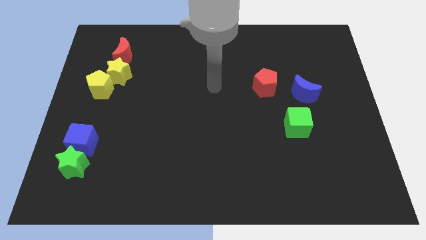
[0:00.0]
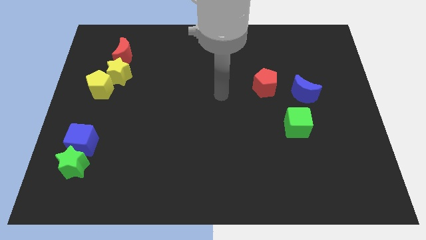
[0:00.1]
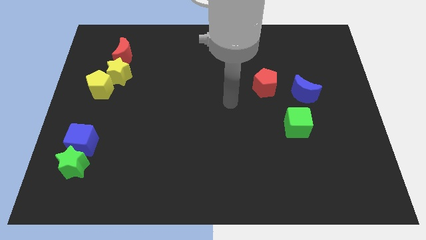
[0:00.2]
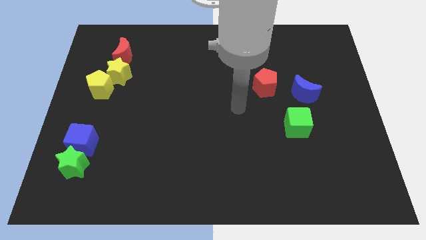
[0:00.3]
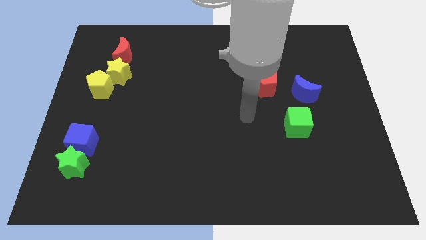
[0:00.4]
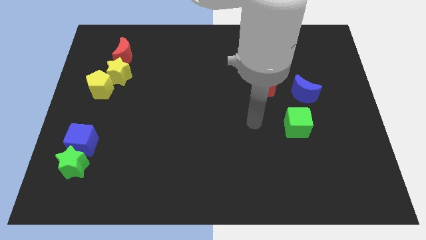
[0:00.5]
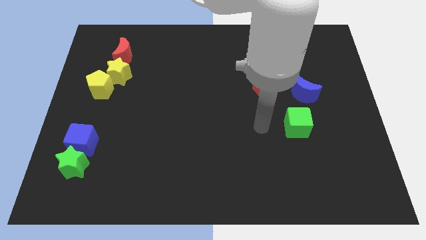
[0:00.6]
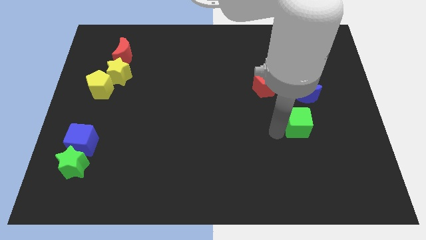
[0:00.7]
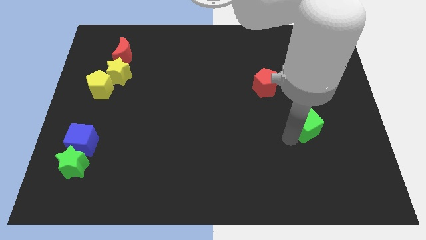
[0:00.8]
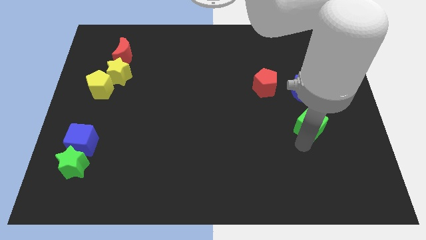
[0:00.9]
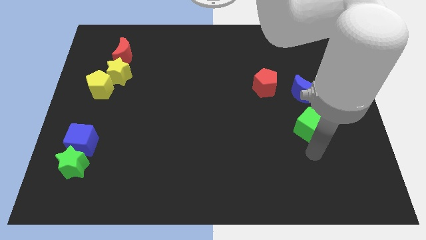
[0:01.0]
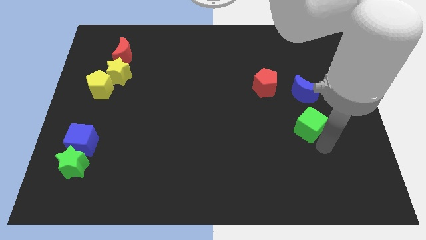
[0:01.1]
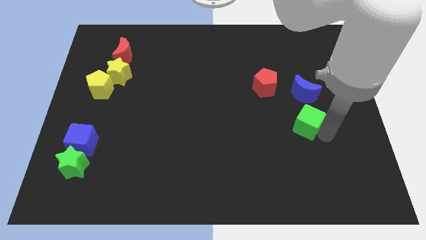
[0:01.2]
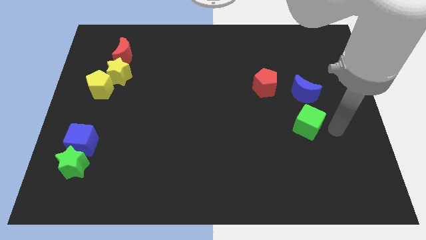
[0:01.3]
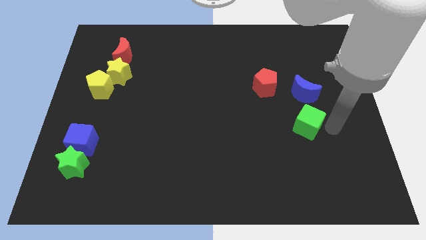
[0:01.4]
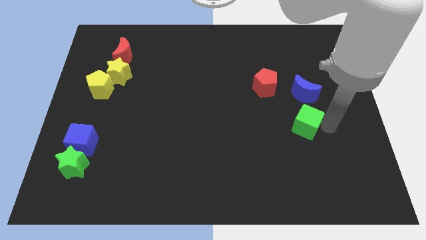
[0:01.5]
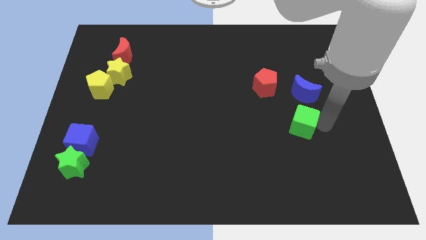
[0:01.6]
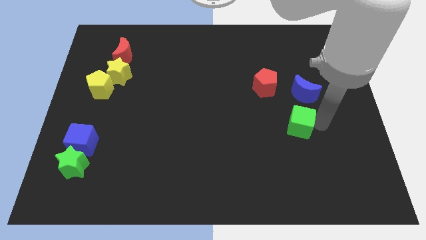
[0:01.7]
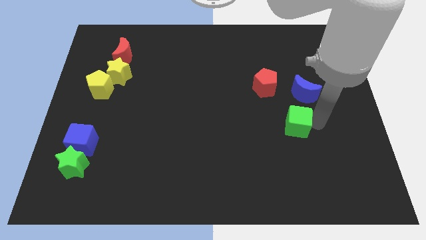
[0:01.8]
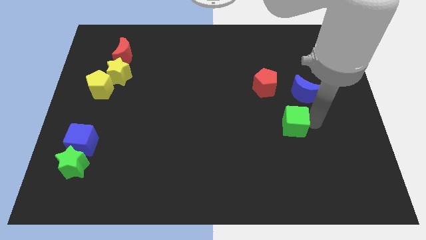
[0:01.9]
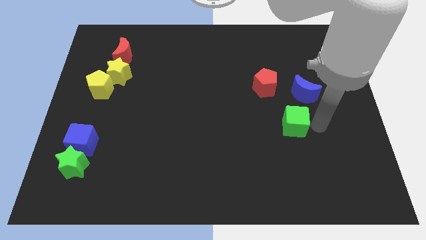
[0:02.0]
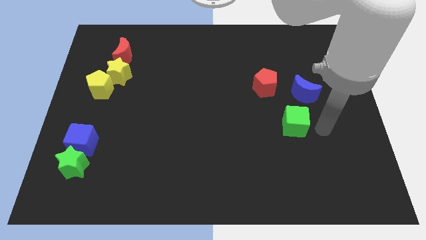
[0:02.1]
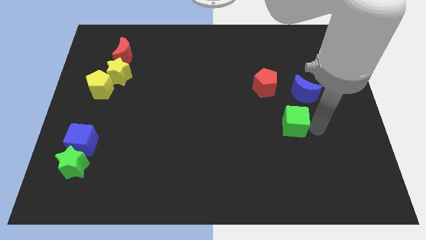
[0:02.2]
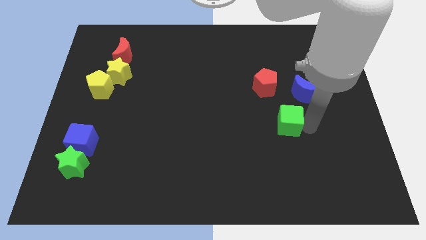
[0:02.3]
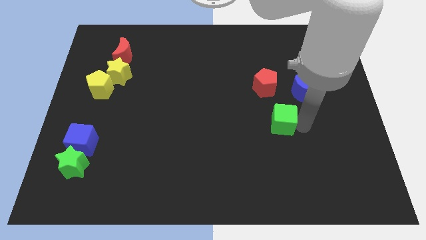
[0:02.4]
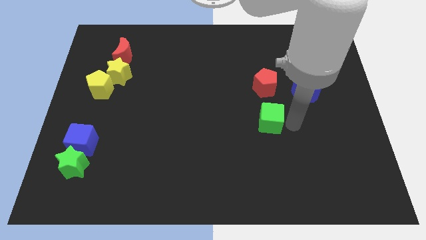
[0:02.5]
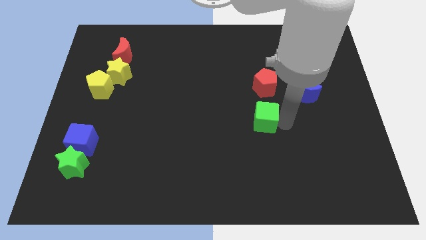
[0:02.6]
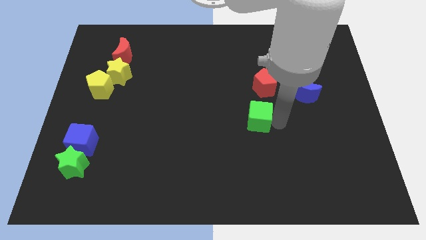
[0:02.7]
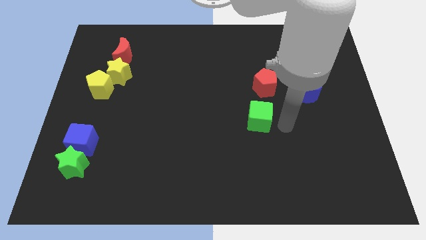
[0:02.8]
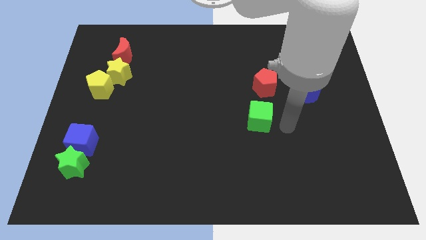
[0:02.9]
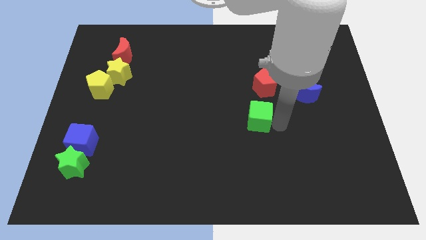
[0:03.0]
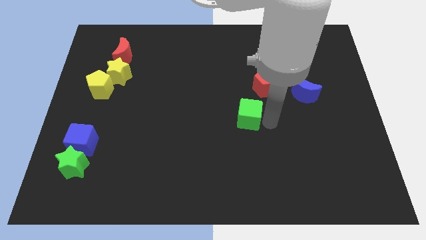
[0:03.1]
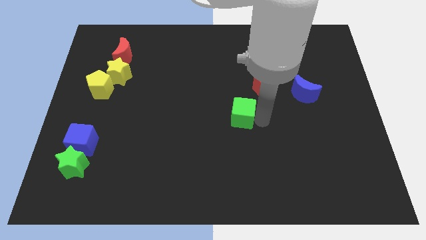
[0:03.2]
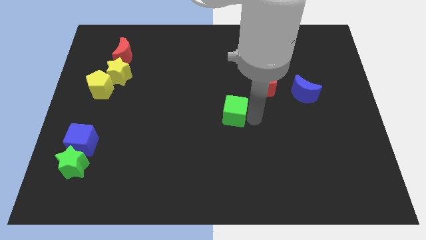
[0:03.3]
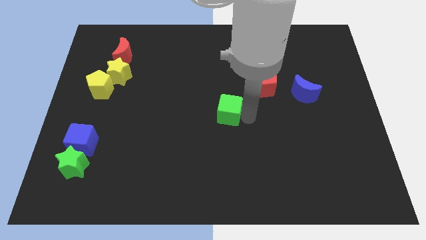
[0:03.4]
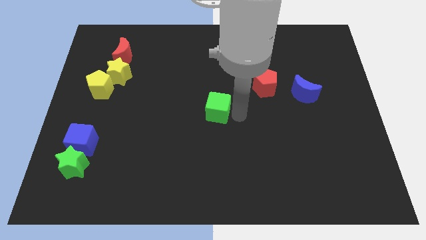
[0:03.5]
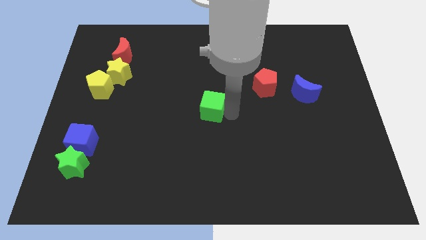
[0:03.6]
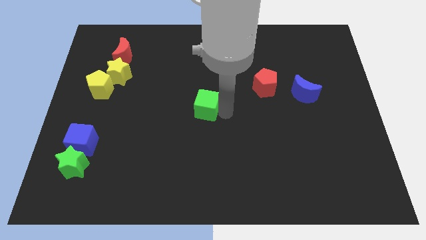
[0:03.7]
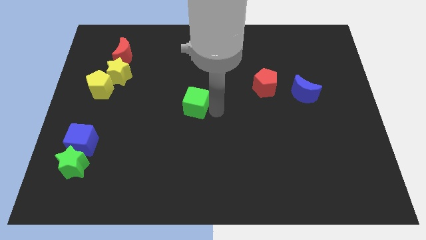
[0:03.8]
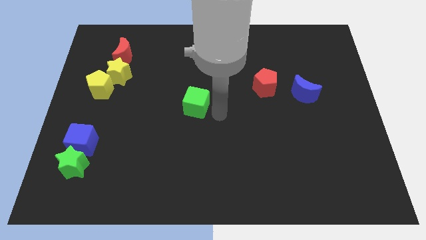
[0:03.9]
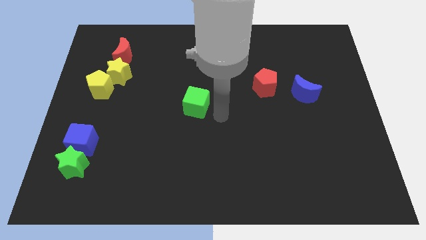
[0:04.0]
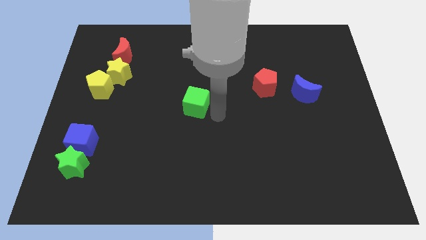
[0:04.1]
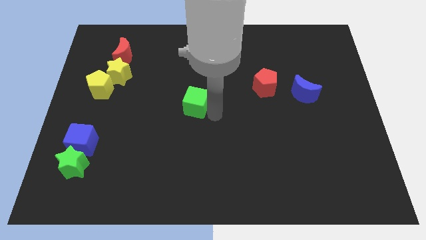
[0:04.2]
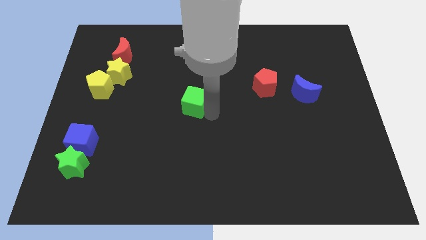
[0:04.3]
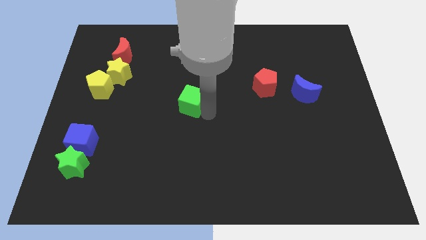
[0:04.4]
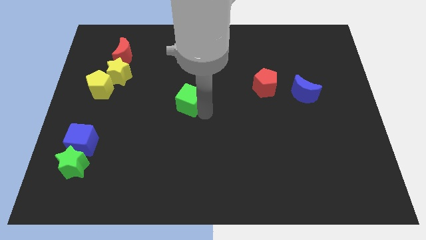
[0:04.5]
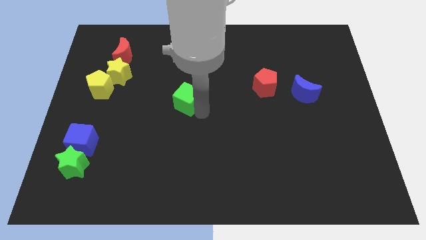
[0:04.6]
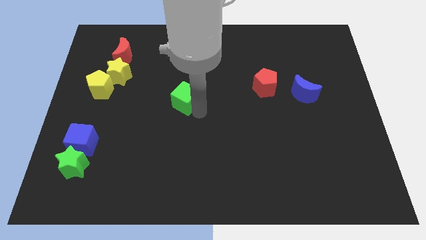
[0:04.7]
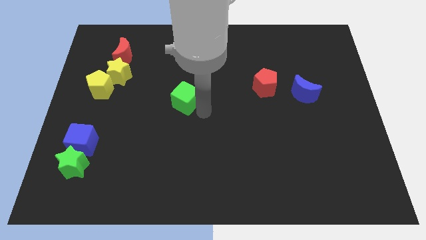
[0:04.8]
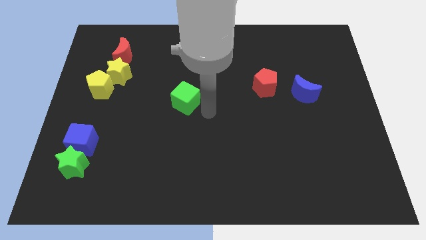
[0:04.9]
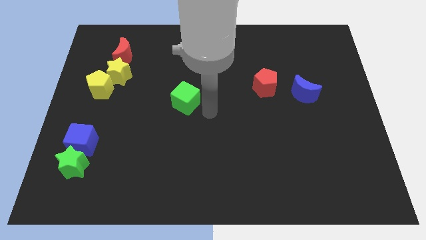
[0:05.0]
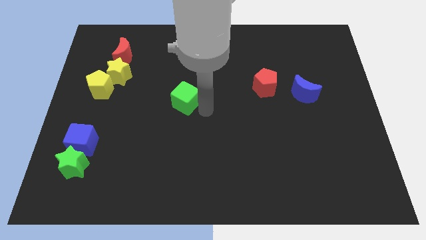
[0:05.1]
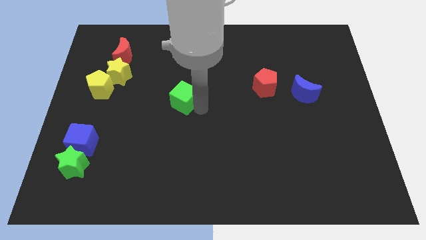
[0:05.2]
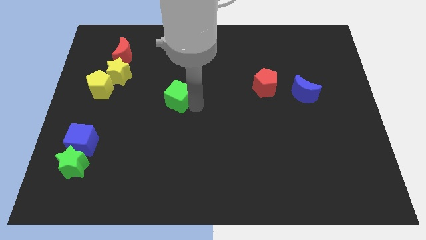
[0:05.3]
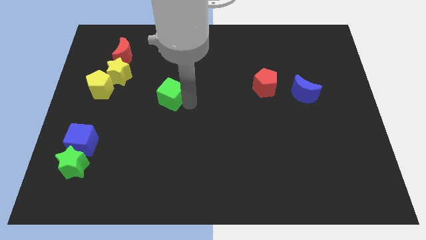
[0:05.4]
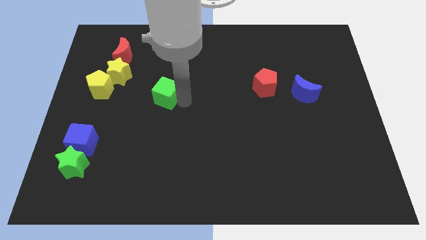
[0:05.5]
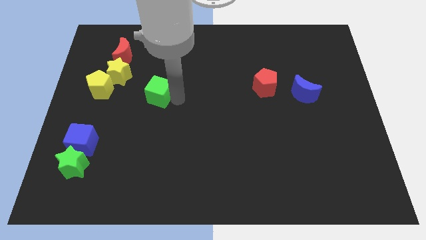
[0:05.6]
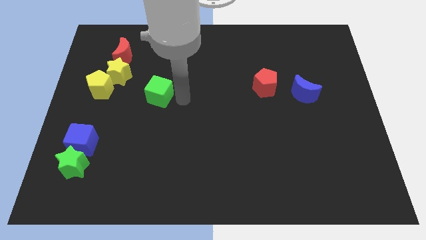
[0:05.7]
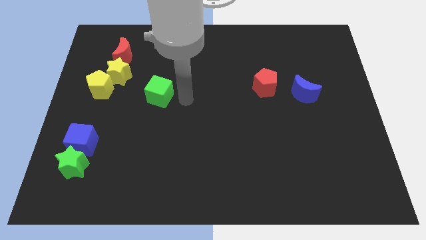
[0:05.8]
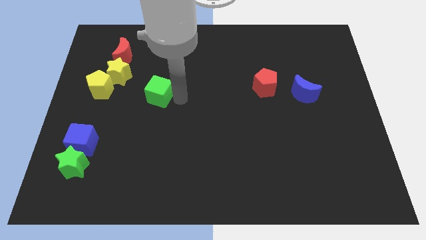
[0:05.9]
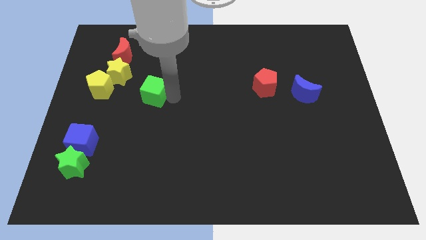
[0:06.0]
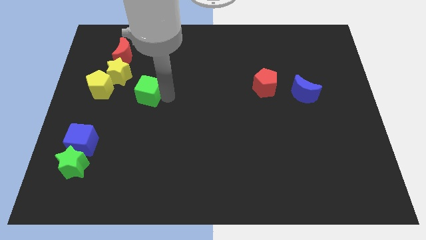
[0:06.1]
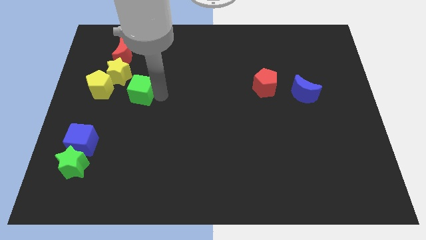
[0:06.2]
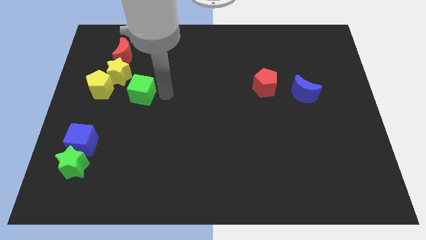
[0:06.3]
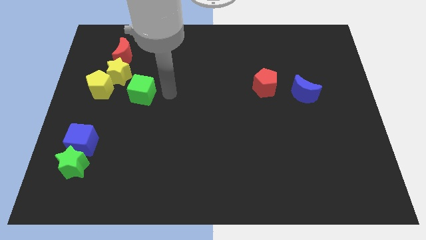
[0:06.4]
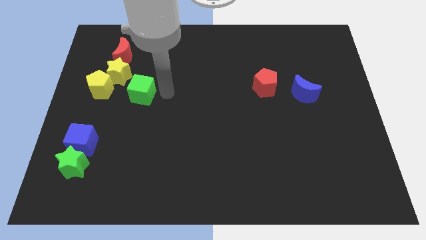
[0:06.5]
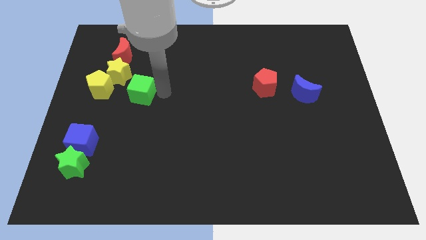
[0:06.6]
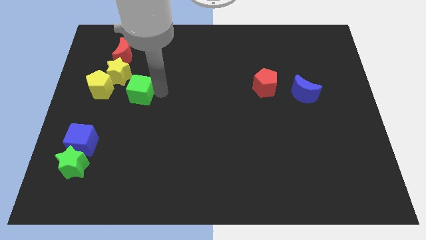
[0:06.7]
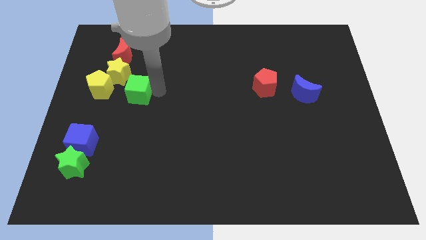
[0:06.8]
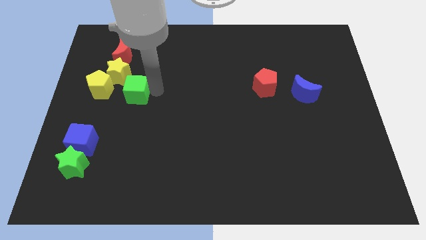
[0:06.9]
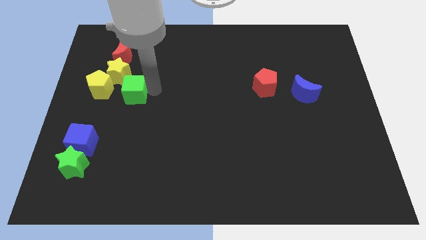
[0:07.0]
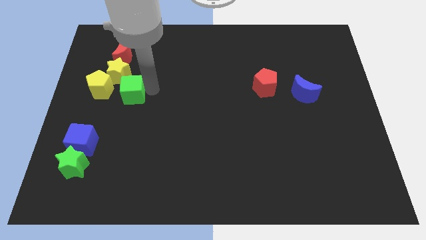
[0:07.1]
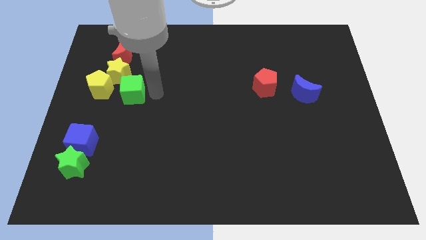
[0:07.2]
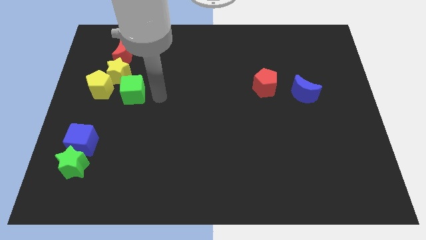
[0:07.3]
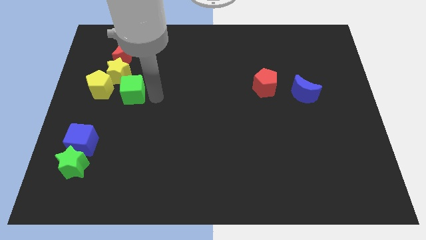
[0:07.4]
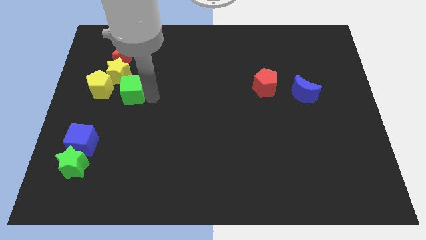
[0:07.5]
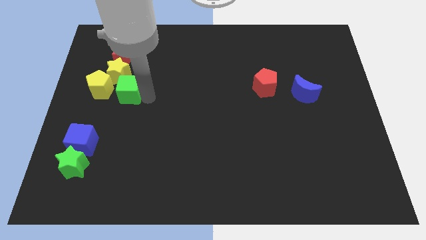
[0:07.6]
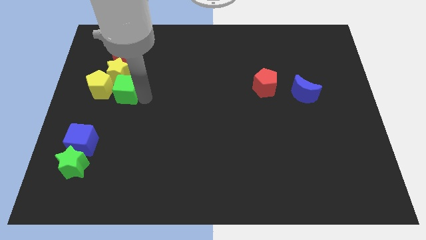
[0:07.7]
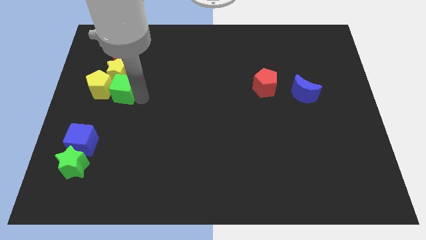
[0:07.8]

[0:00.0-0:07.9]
put the green cube next to the yellow pentagon
